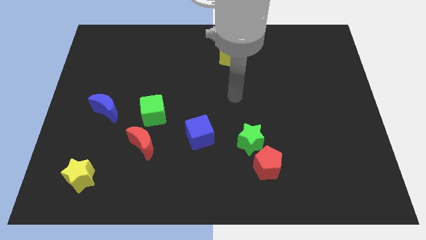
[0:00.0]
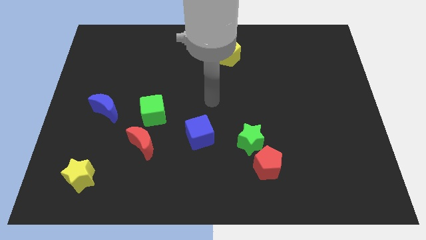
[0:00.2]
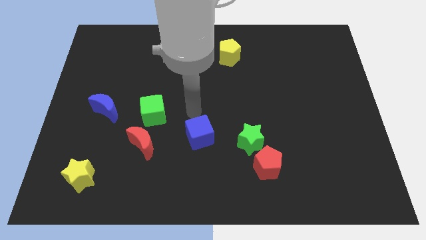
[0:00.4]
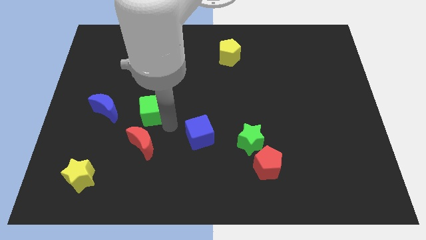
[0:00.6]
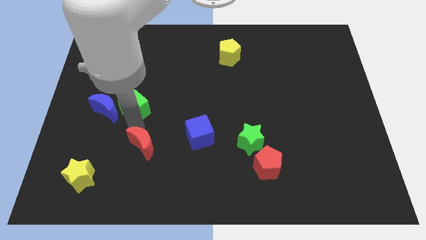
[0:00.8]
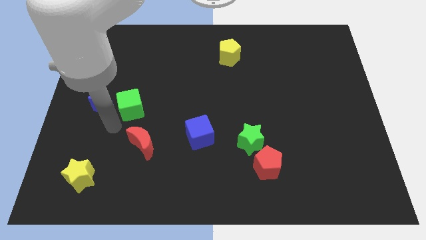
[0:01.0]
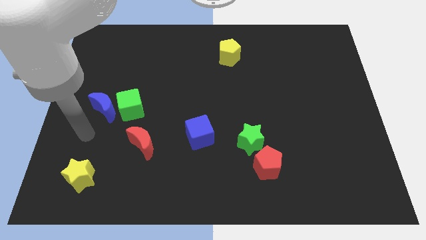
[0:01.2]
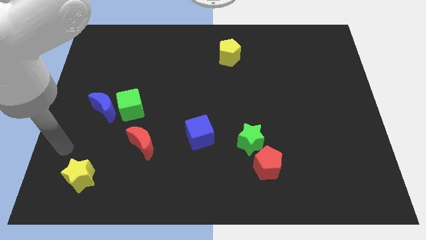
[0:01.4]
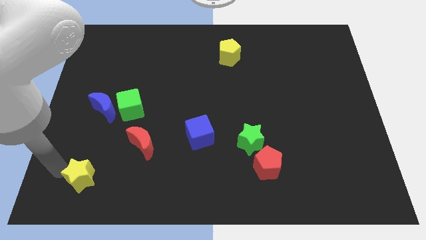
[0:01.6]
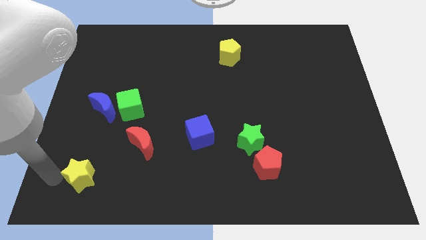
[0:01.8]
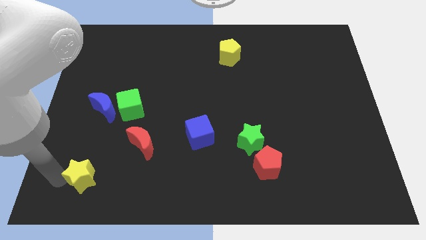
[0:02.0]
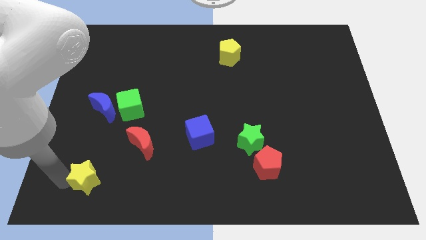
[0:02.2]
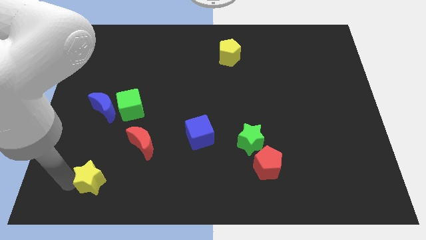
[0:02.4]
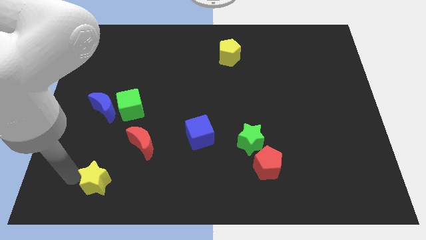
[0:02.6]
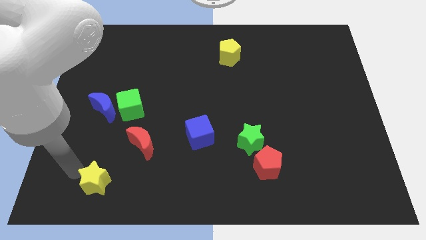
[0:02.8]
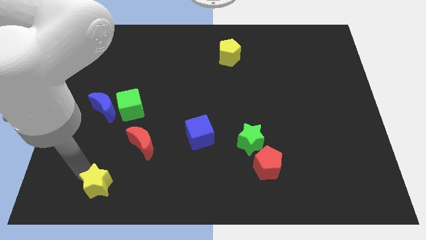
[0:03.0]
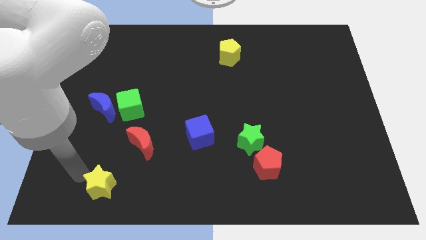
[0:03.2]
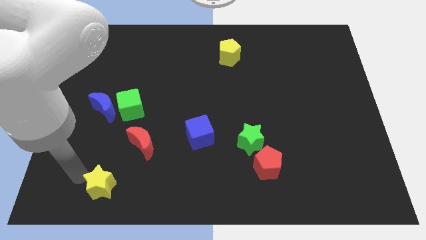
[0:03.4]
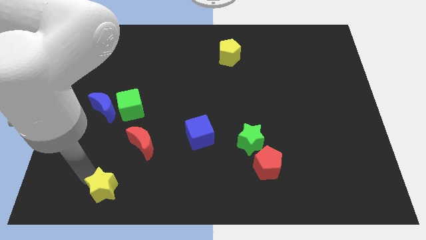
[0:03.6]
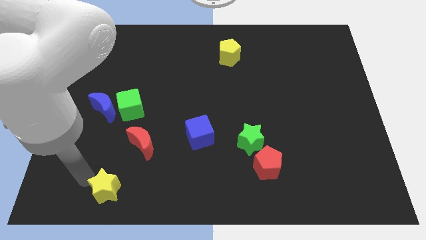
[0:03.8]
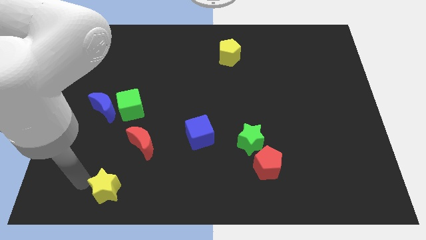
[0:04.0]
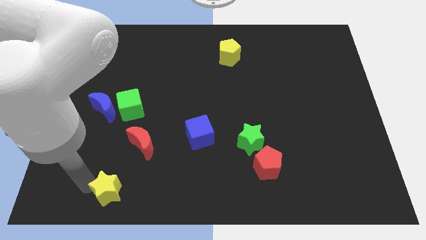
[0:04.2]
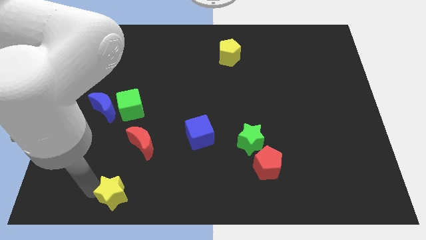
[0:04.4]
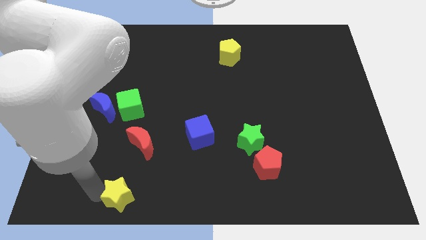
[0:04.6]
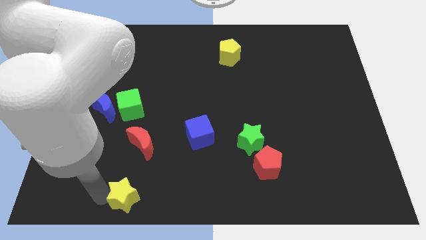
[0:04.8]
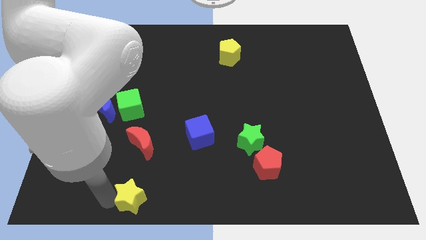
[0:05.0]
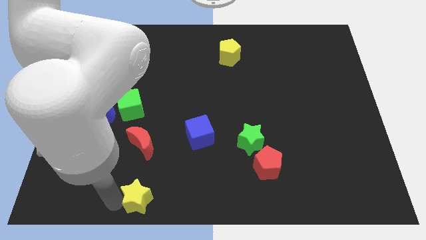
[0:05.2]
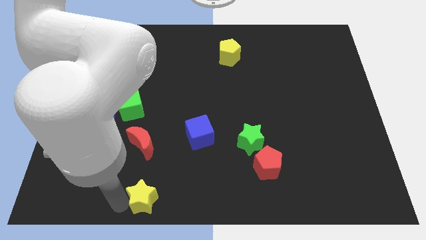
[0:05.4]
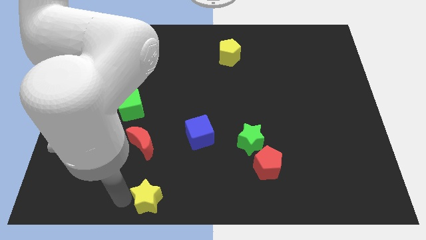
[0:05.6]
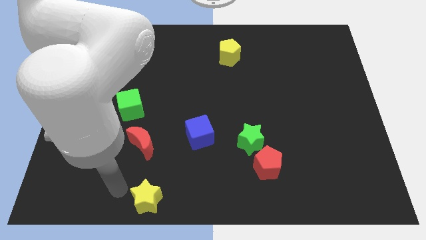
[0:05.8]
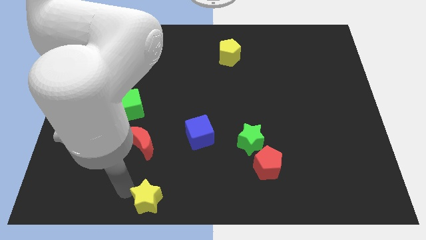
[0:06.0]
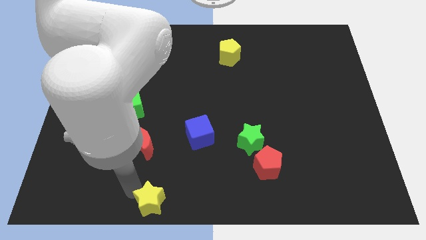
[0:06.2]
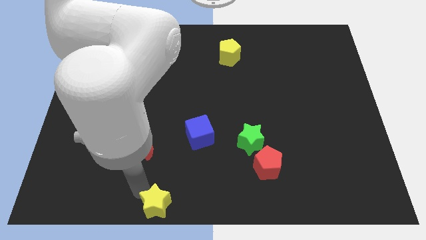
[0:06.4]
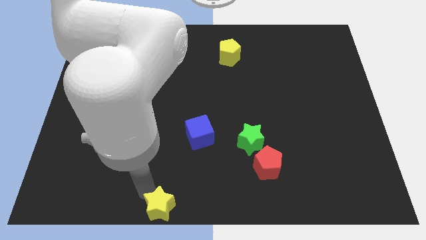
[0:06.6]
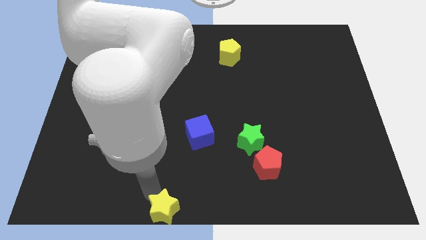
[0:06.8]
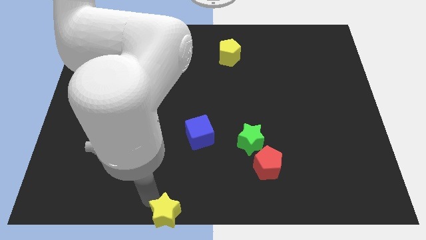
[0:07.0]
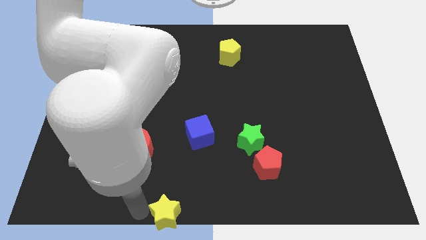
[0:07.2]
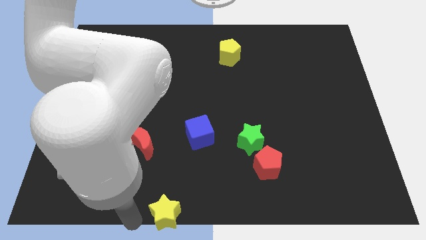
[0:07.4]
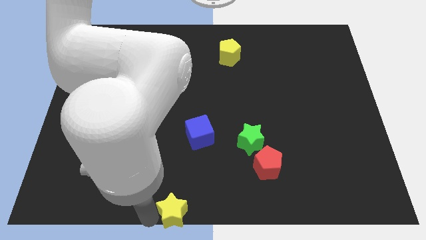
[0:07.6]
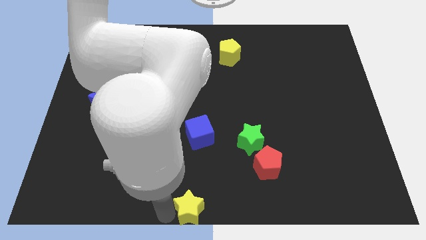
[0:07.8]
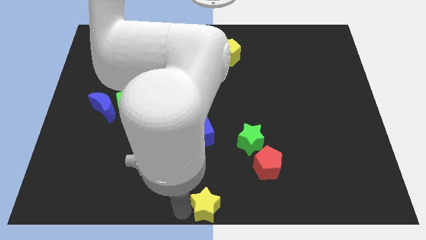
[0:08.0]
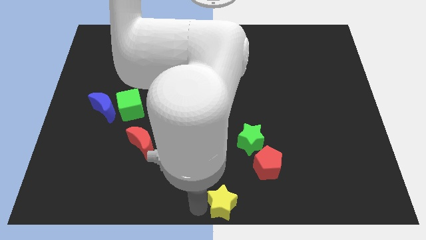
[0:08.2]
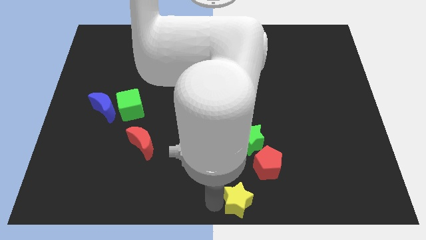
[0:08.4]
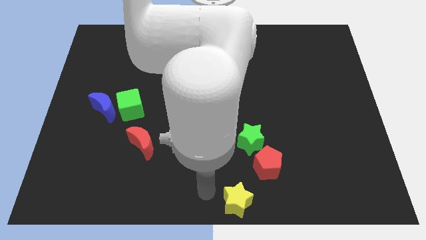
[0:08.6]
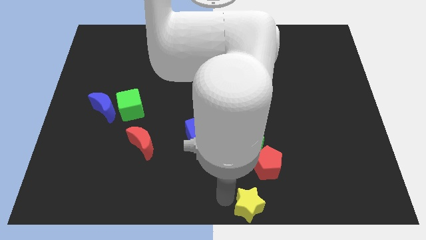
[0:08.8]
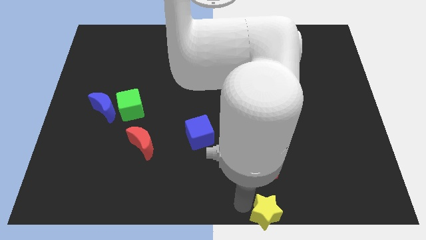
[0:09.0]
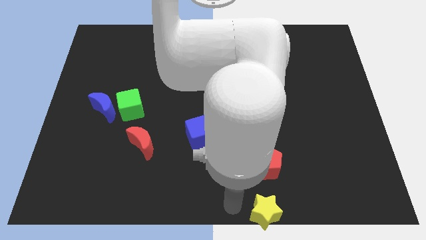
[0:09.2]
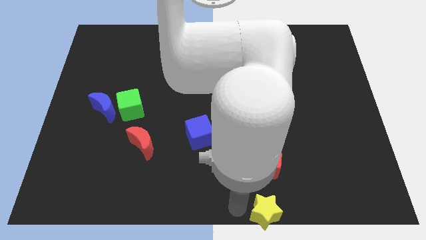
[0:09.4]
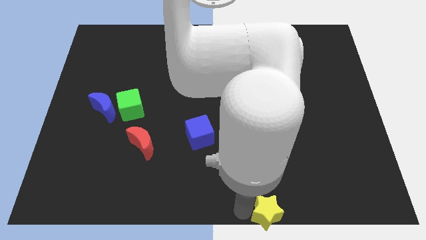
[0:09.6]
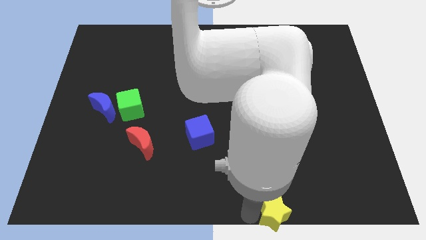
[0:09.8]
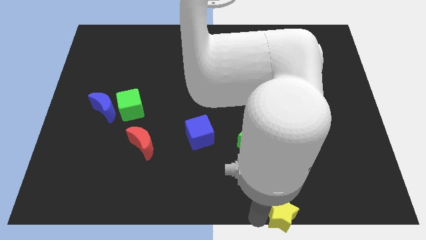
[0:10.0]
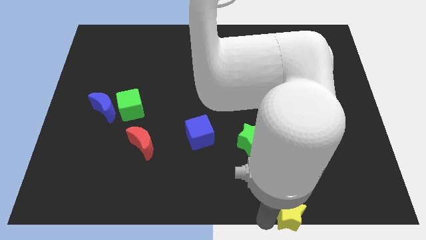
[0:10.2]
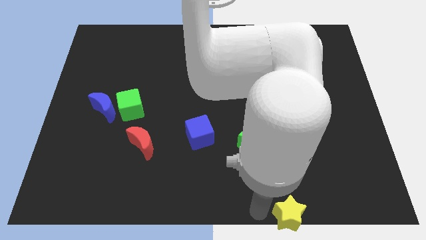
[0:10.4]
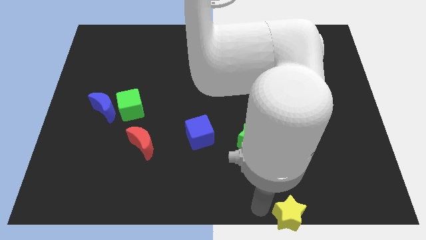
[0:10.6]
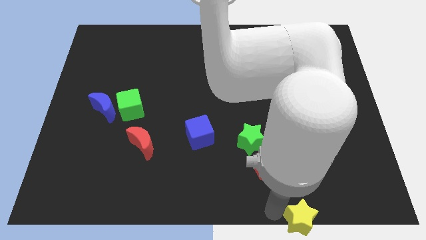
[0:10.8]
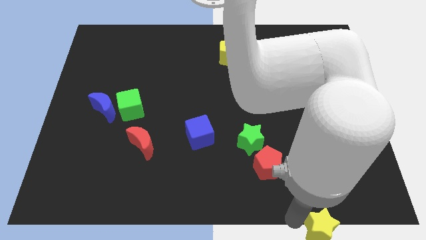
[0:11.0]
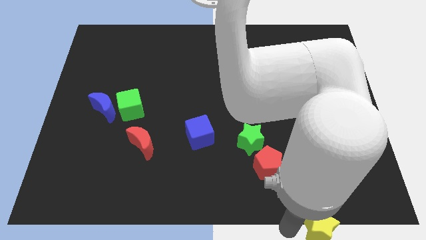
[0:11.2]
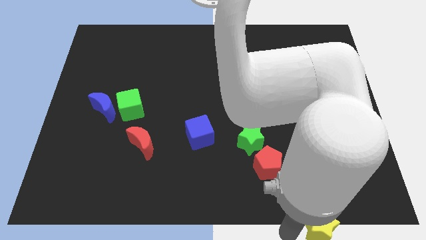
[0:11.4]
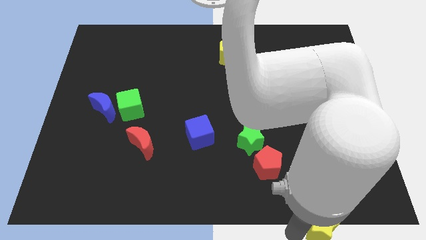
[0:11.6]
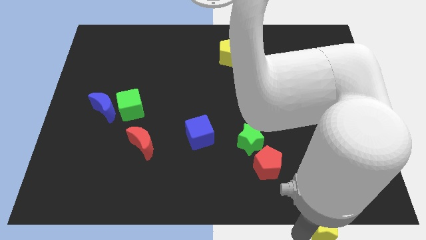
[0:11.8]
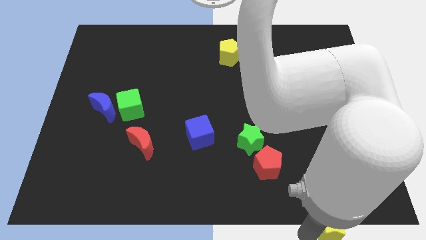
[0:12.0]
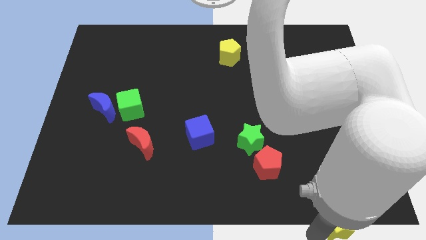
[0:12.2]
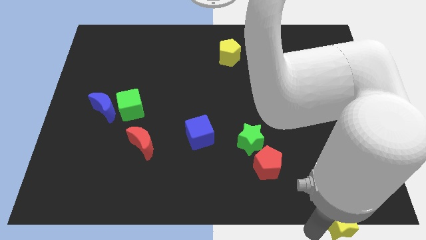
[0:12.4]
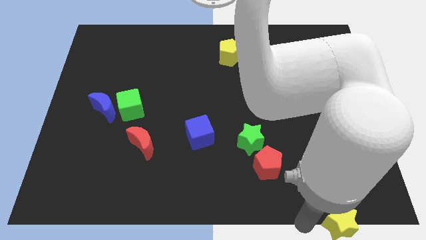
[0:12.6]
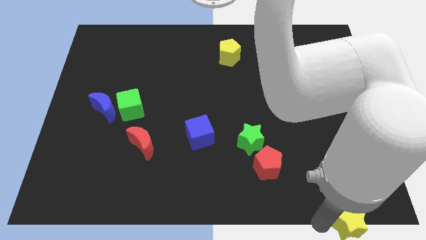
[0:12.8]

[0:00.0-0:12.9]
put the yellow star to the bottom right
